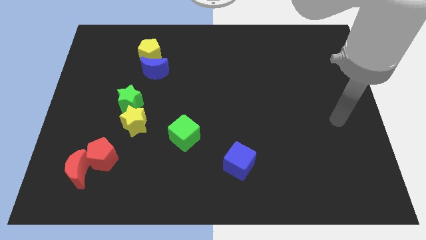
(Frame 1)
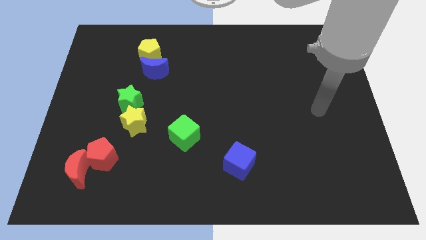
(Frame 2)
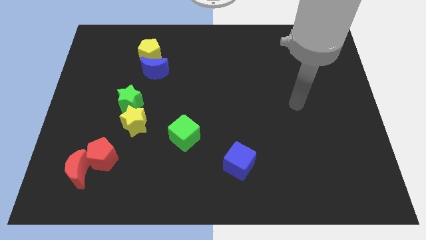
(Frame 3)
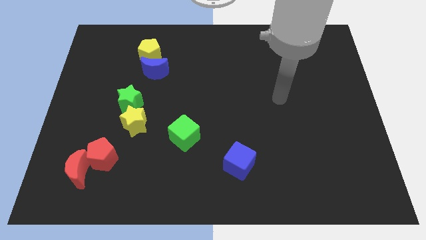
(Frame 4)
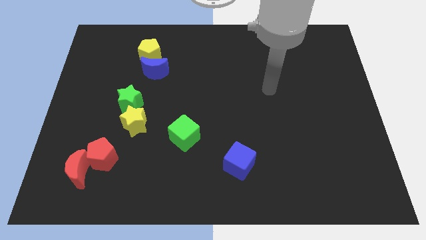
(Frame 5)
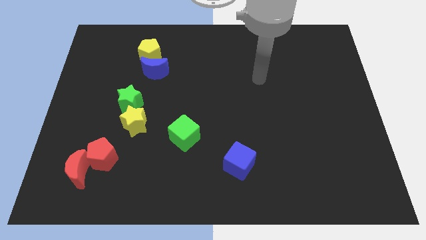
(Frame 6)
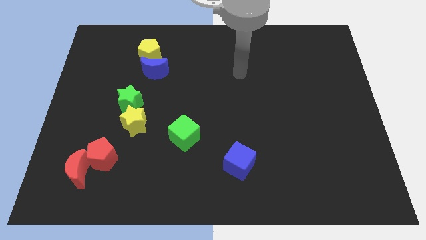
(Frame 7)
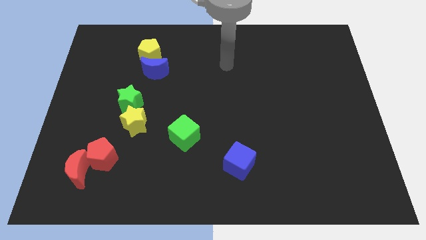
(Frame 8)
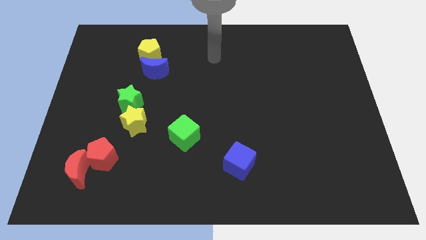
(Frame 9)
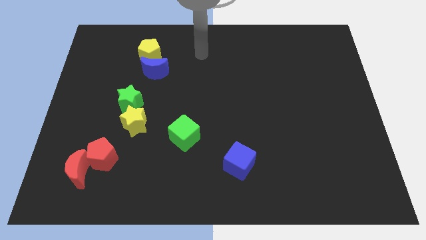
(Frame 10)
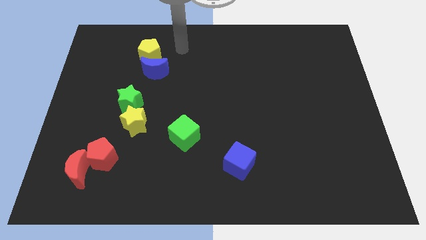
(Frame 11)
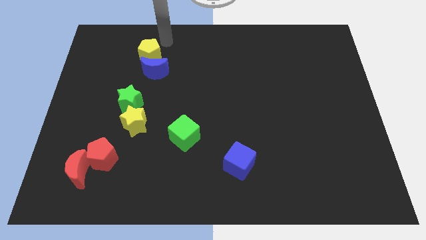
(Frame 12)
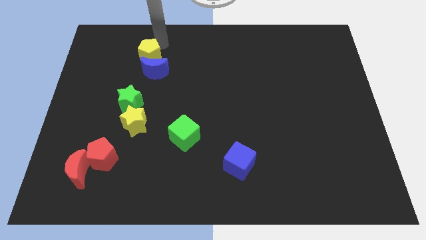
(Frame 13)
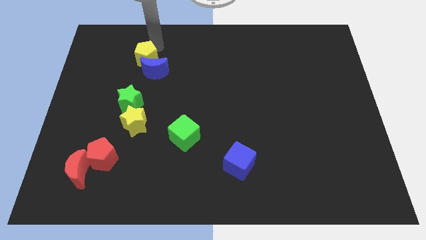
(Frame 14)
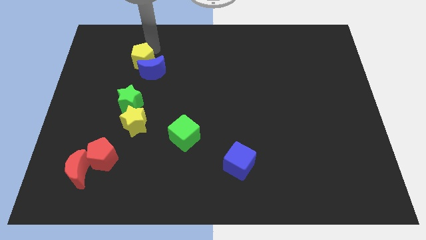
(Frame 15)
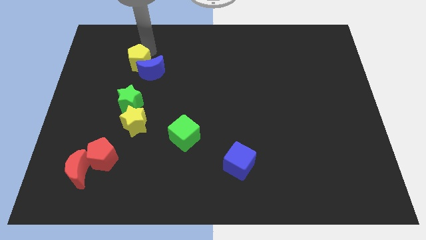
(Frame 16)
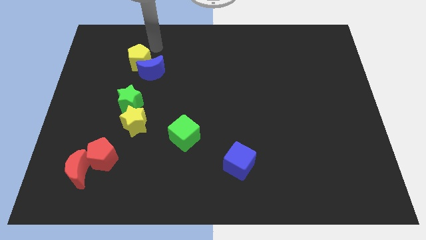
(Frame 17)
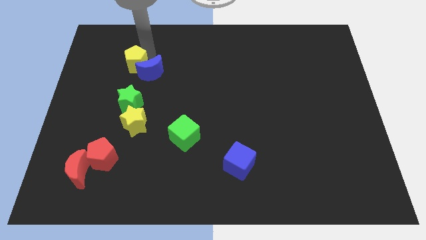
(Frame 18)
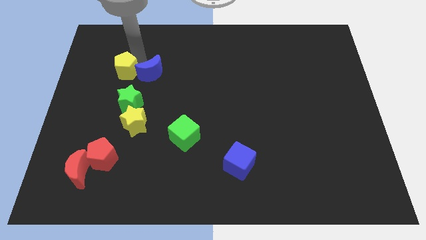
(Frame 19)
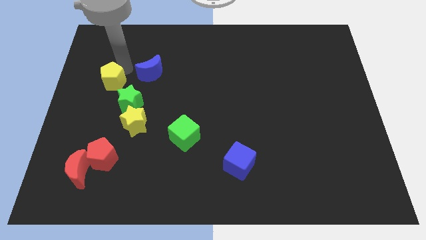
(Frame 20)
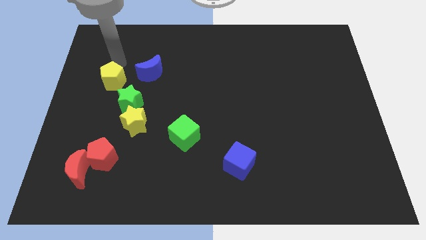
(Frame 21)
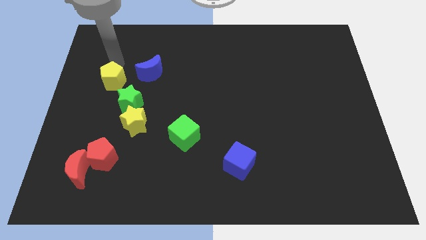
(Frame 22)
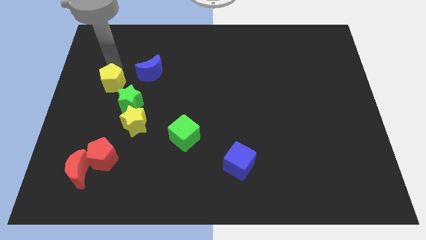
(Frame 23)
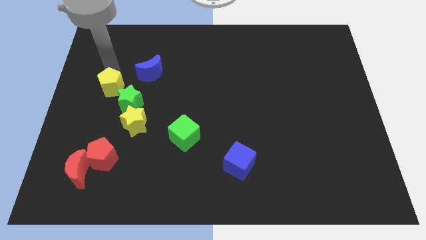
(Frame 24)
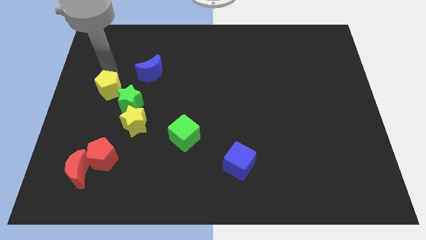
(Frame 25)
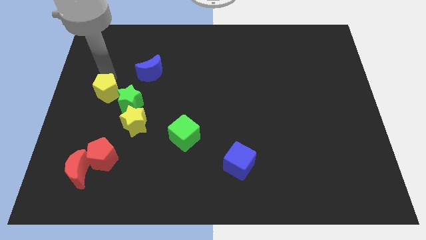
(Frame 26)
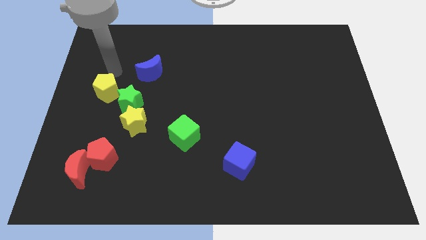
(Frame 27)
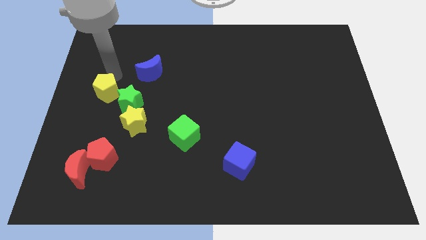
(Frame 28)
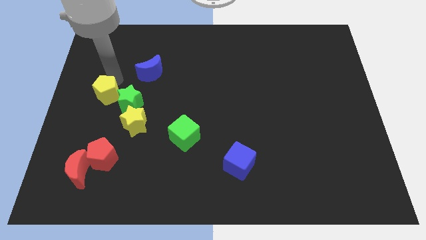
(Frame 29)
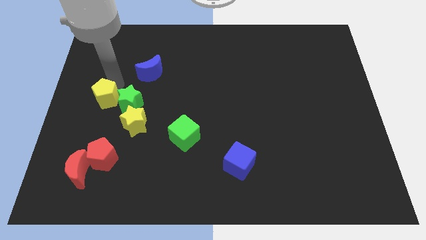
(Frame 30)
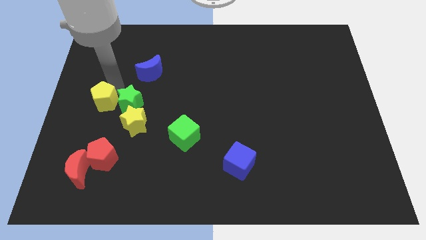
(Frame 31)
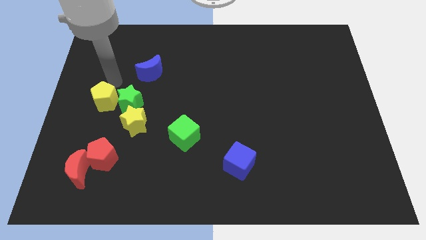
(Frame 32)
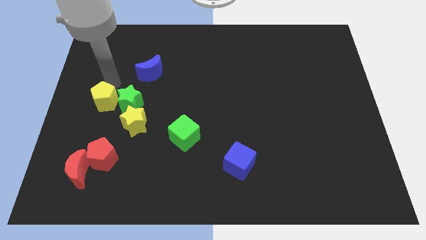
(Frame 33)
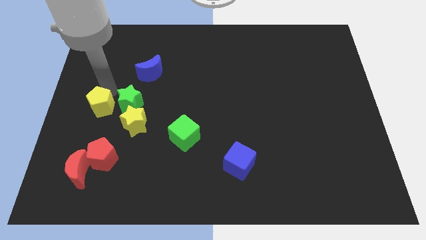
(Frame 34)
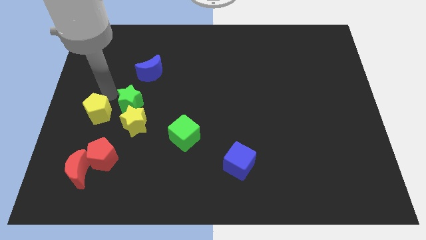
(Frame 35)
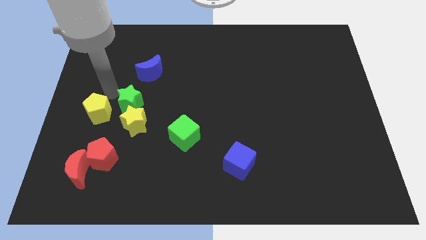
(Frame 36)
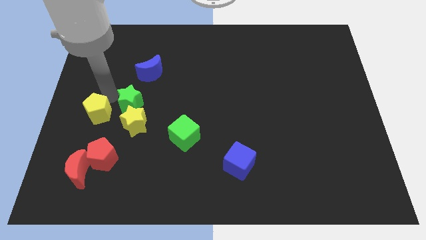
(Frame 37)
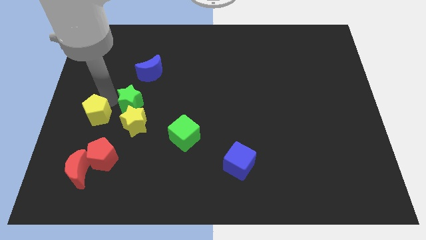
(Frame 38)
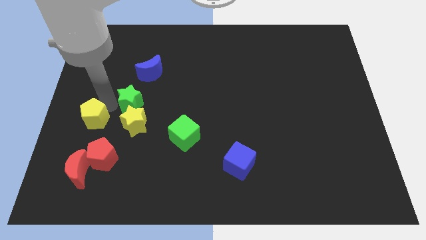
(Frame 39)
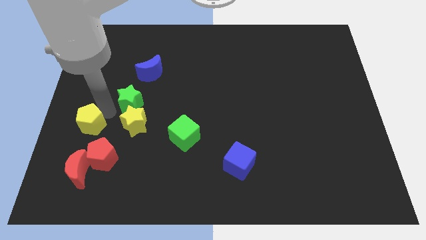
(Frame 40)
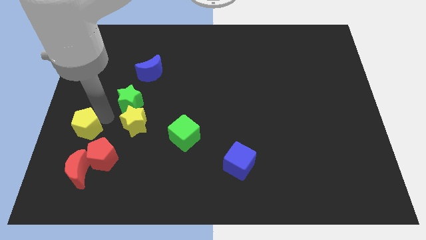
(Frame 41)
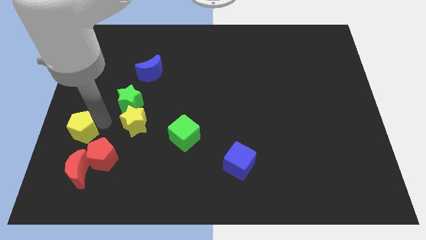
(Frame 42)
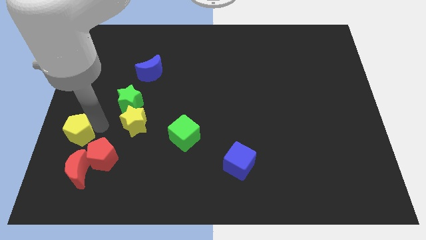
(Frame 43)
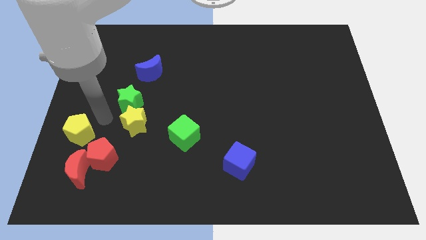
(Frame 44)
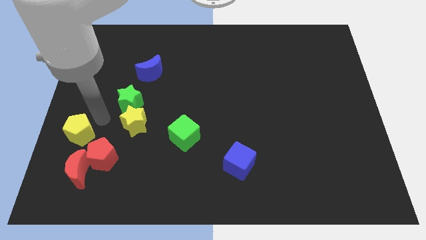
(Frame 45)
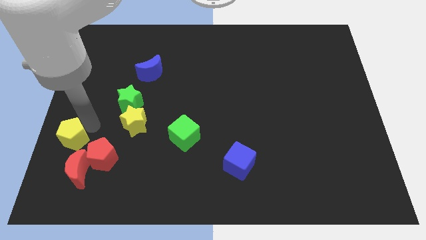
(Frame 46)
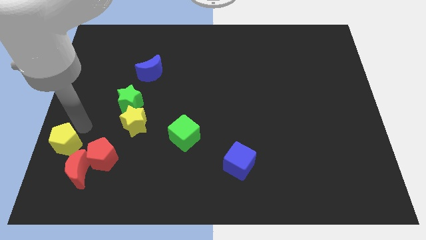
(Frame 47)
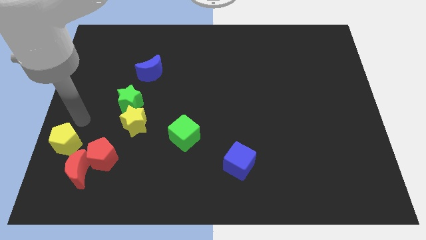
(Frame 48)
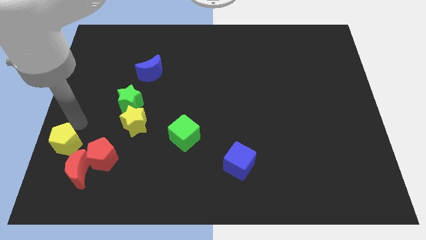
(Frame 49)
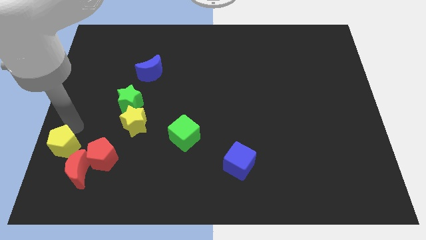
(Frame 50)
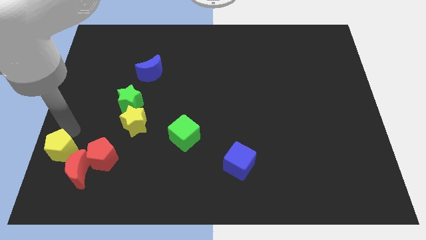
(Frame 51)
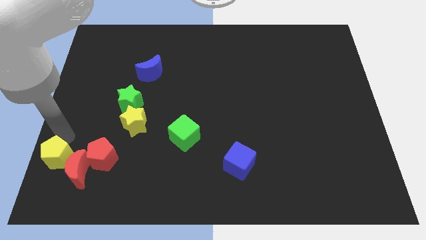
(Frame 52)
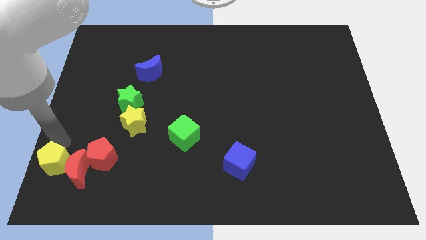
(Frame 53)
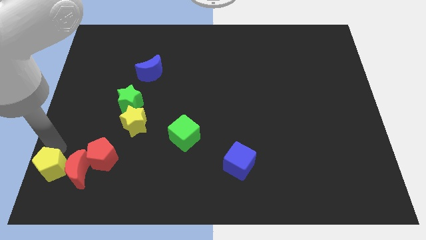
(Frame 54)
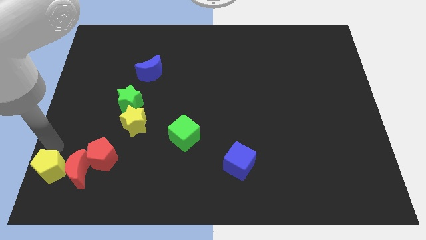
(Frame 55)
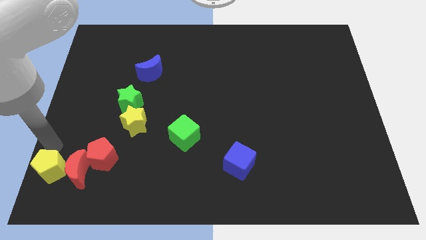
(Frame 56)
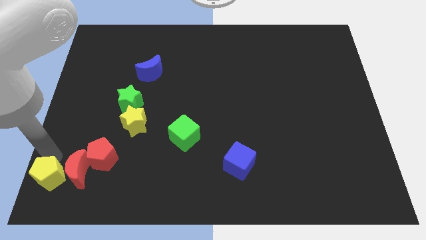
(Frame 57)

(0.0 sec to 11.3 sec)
push the yellow pentagon to the bottom left of the red pentagon

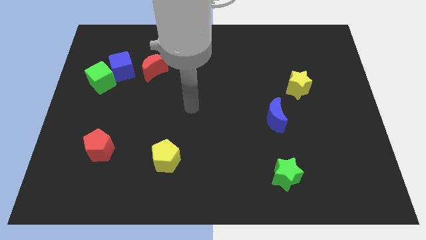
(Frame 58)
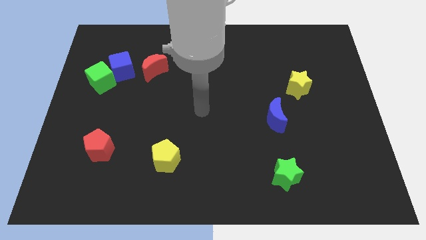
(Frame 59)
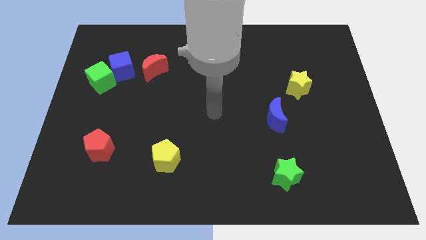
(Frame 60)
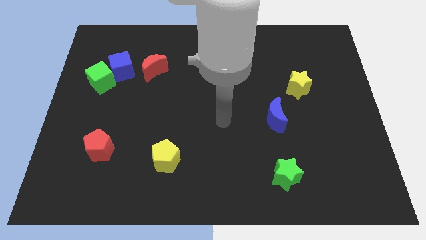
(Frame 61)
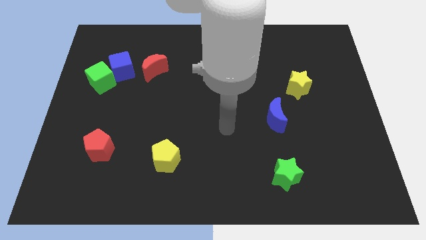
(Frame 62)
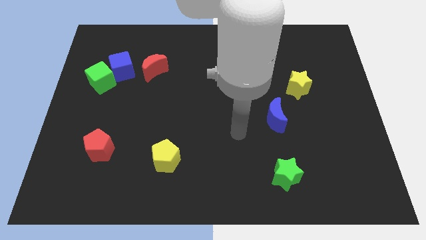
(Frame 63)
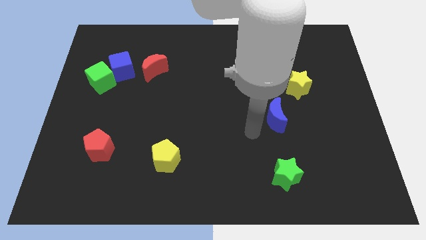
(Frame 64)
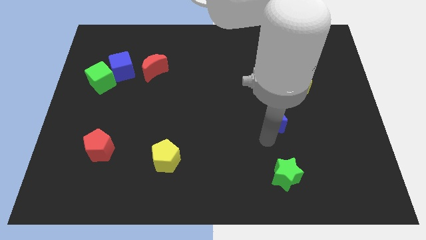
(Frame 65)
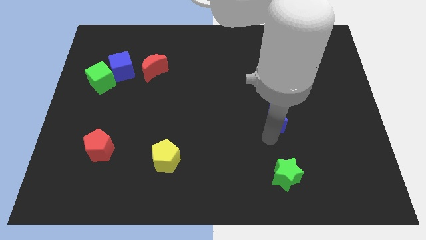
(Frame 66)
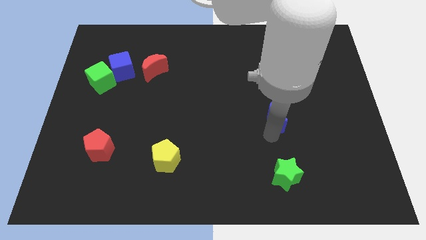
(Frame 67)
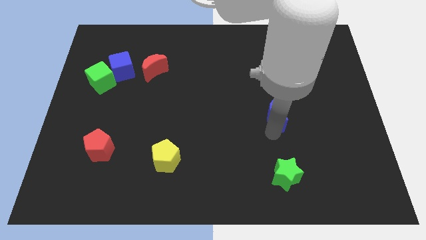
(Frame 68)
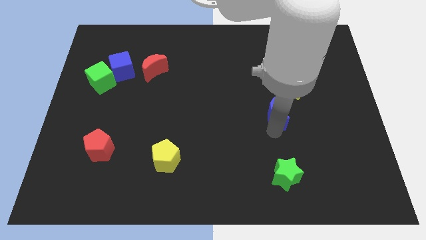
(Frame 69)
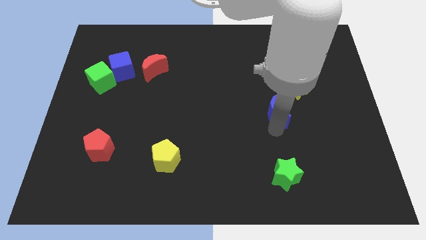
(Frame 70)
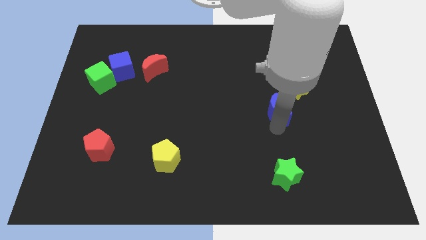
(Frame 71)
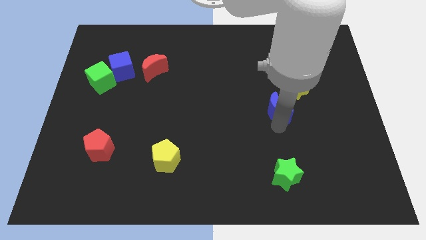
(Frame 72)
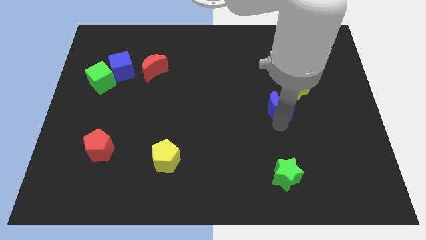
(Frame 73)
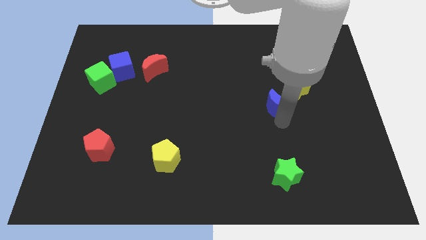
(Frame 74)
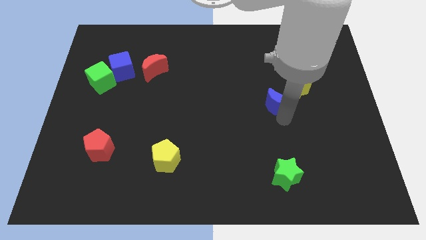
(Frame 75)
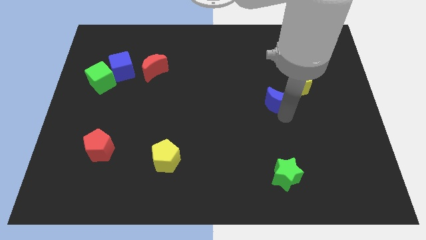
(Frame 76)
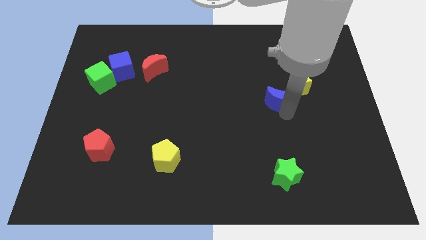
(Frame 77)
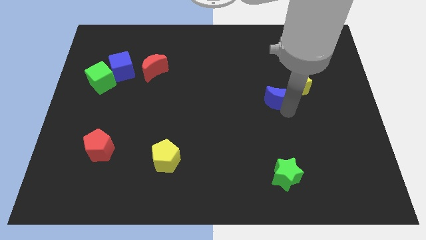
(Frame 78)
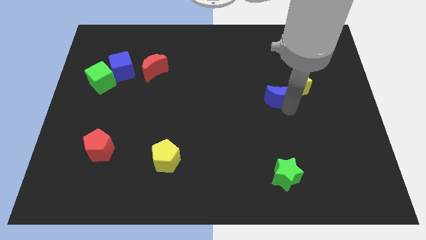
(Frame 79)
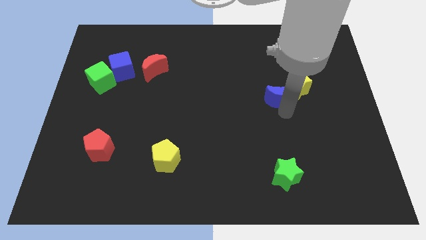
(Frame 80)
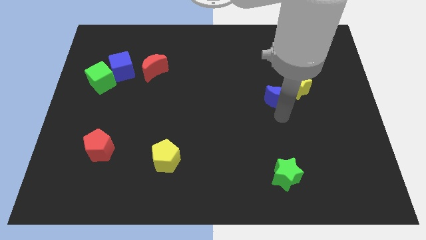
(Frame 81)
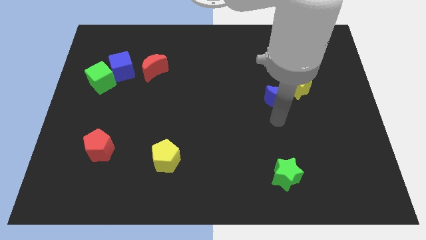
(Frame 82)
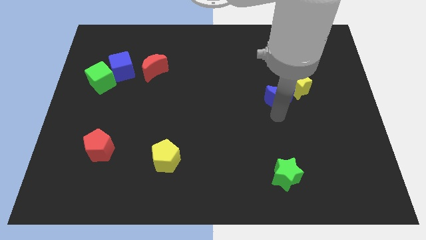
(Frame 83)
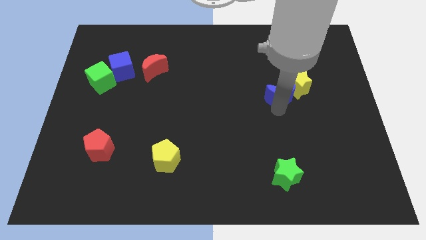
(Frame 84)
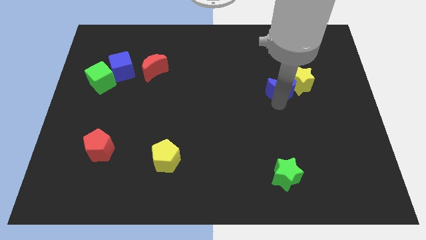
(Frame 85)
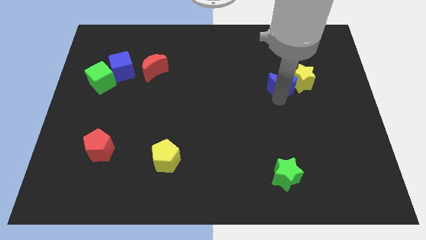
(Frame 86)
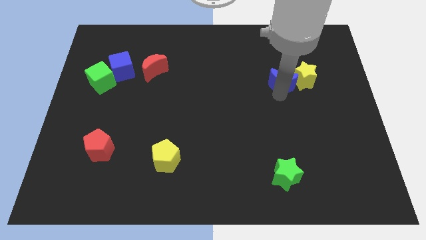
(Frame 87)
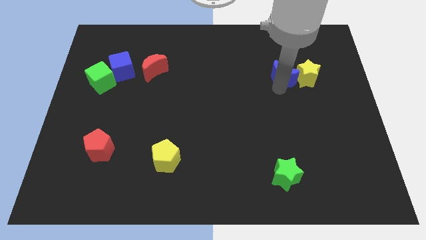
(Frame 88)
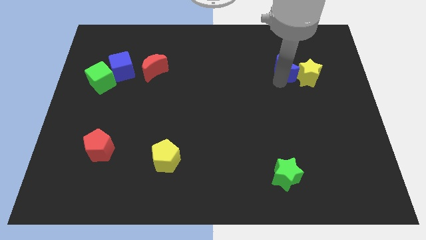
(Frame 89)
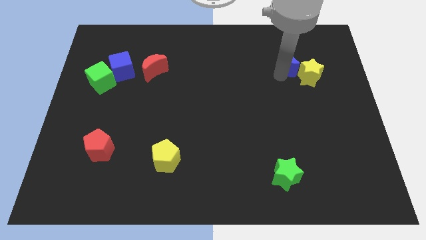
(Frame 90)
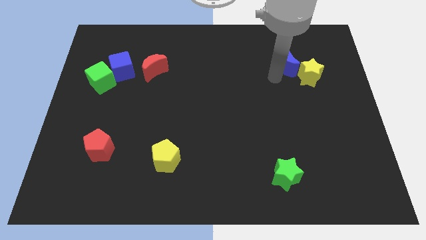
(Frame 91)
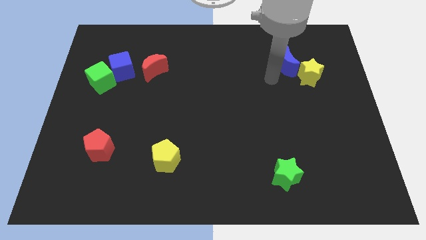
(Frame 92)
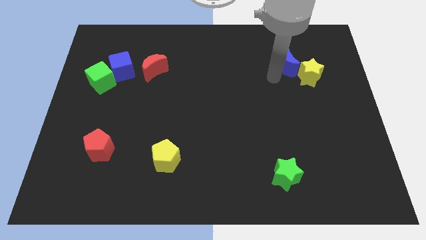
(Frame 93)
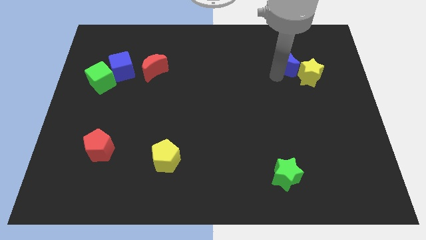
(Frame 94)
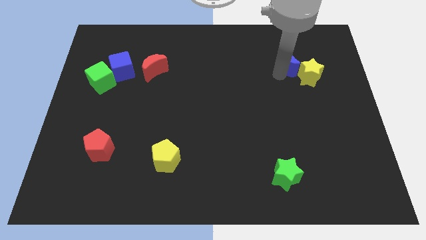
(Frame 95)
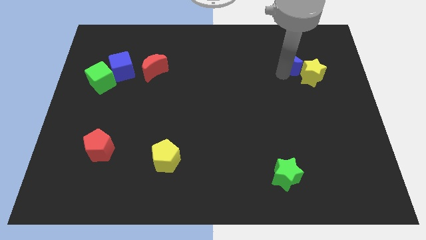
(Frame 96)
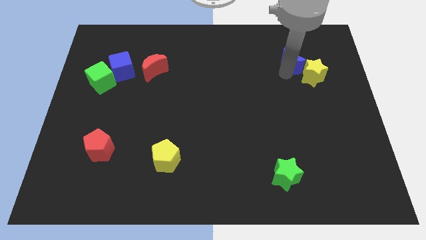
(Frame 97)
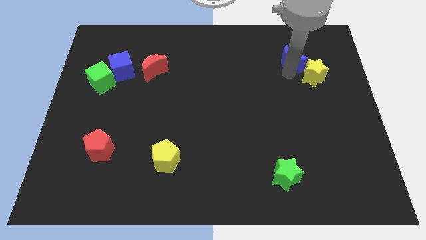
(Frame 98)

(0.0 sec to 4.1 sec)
move the blue moon to the top side of the yellow star
